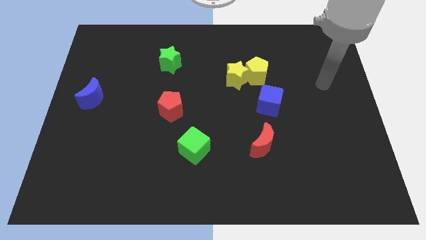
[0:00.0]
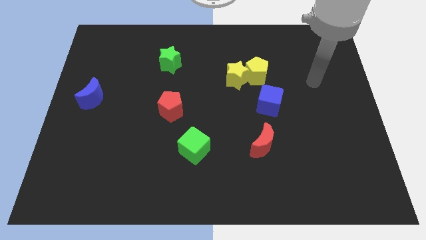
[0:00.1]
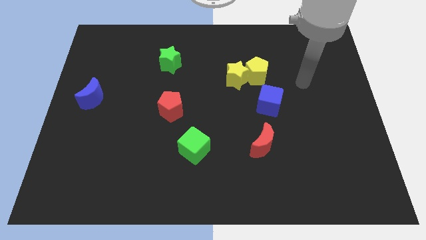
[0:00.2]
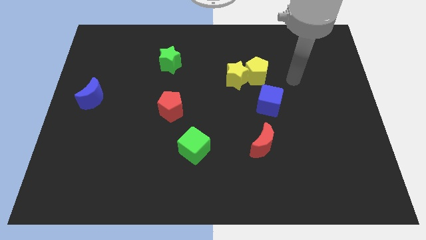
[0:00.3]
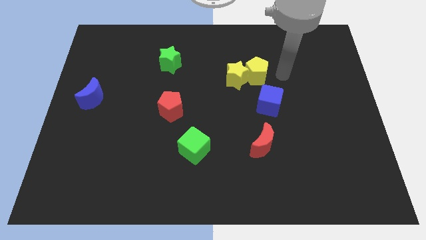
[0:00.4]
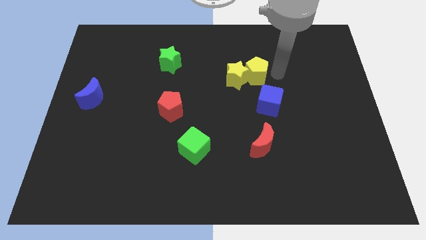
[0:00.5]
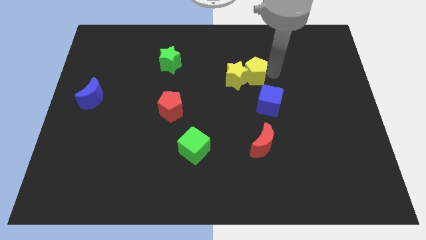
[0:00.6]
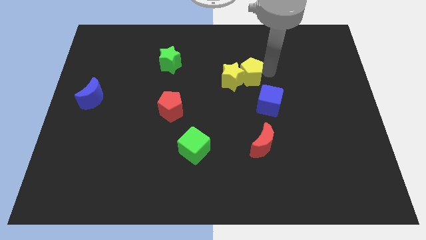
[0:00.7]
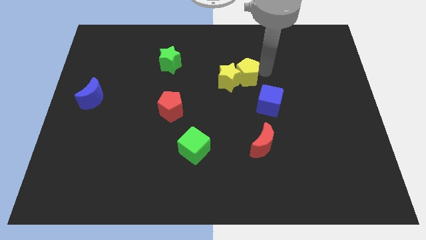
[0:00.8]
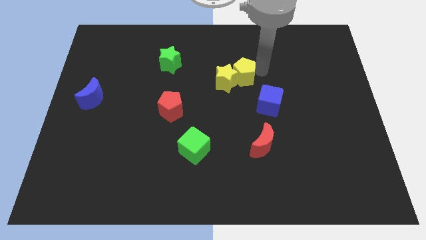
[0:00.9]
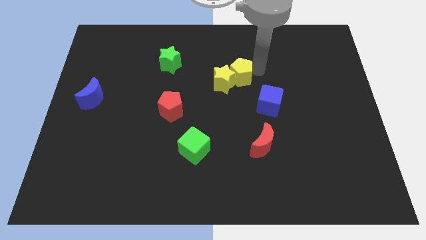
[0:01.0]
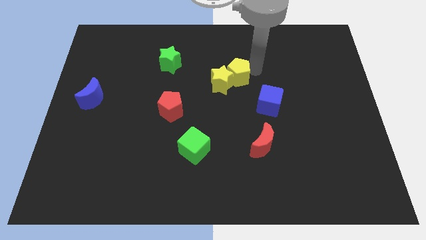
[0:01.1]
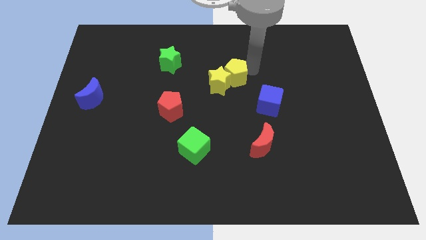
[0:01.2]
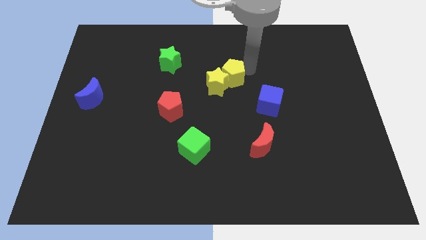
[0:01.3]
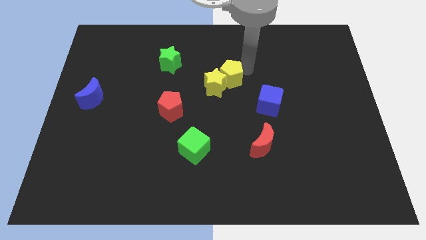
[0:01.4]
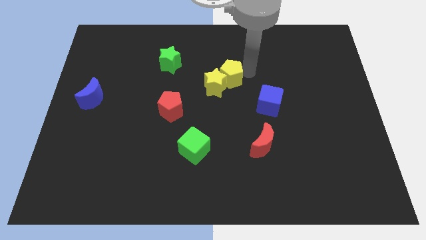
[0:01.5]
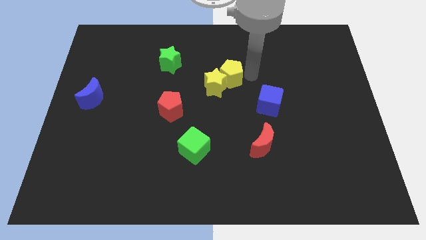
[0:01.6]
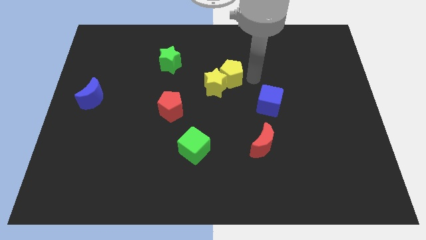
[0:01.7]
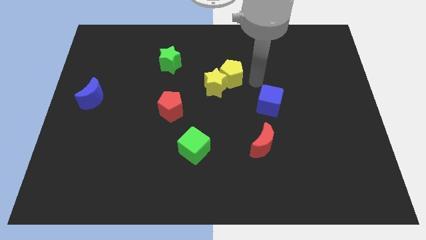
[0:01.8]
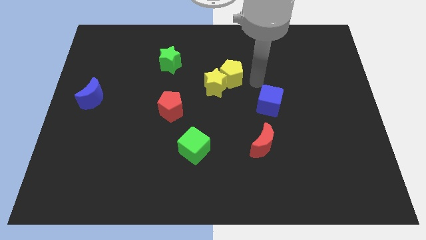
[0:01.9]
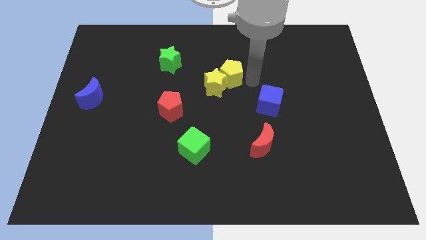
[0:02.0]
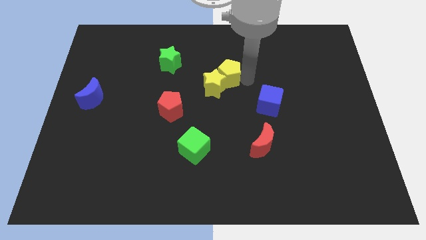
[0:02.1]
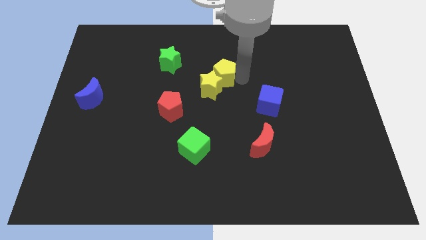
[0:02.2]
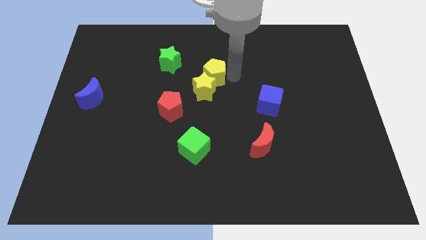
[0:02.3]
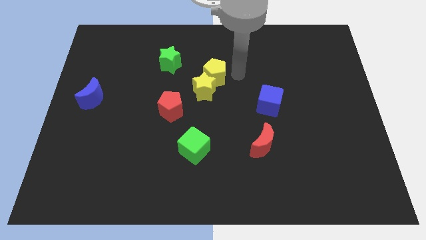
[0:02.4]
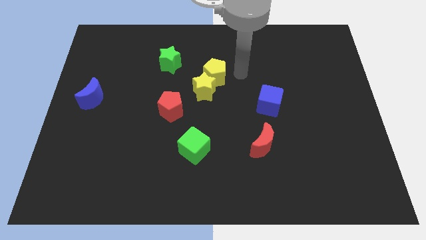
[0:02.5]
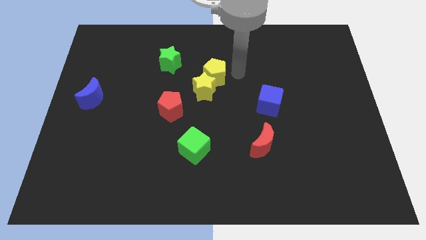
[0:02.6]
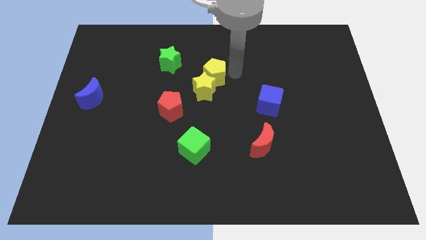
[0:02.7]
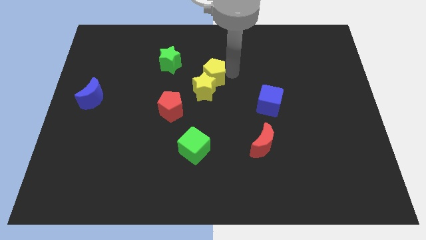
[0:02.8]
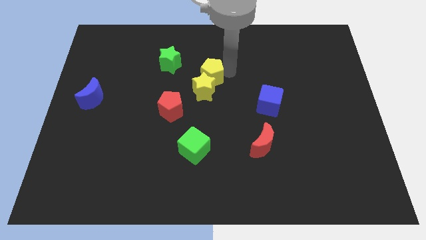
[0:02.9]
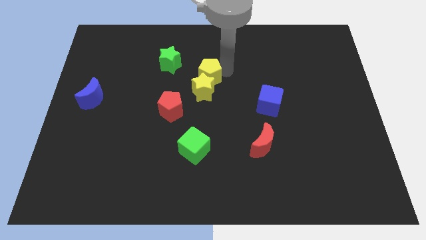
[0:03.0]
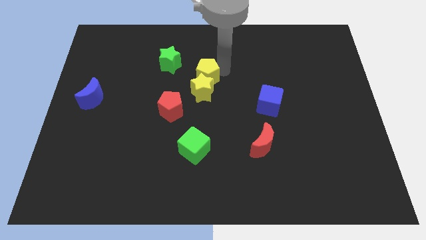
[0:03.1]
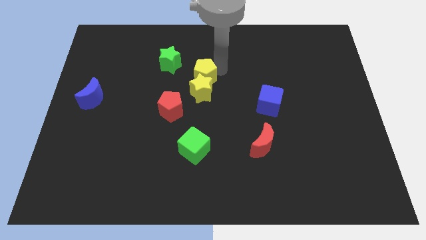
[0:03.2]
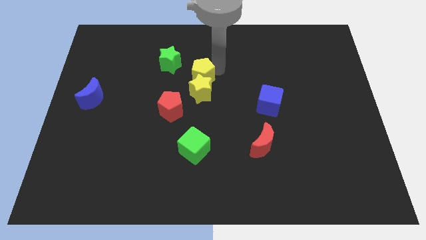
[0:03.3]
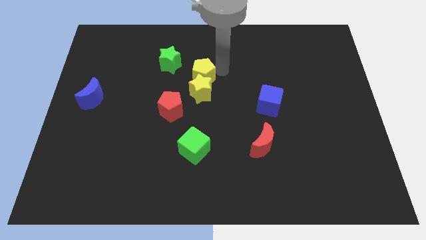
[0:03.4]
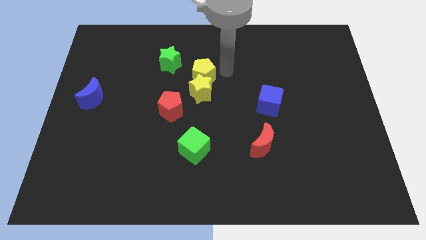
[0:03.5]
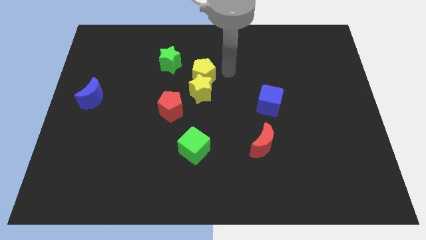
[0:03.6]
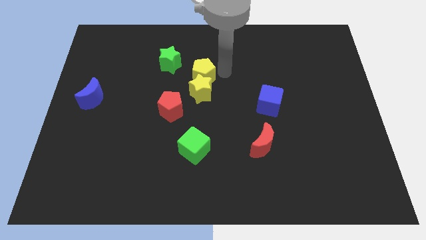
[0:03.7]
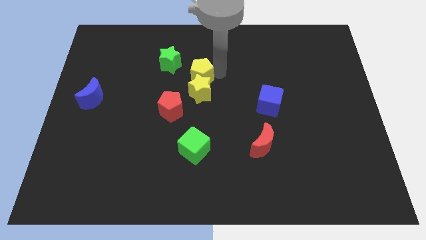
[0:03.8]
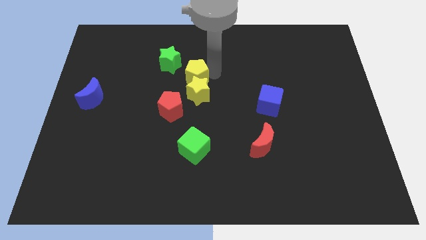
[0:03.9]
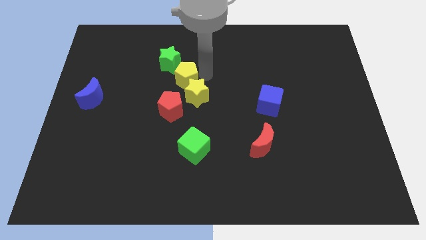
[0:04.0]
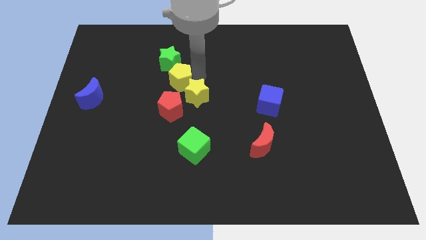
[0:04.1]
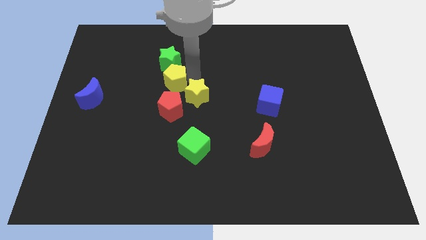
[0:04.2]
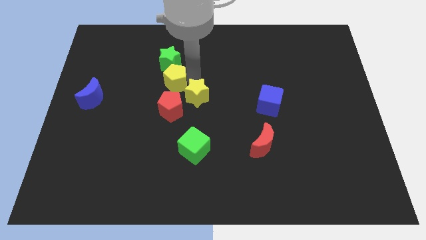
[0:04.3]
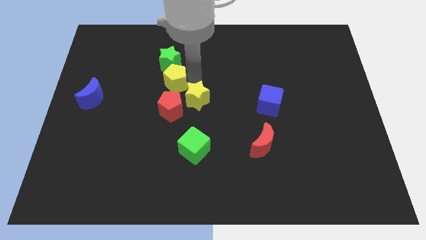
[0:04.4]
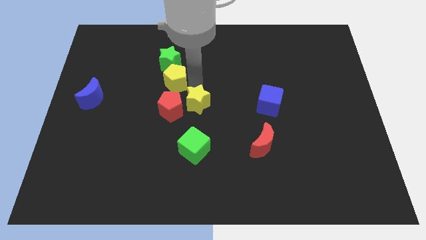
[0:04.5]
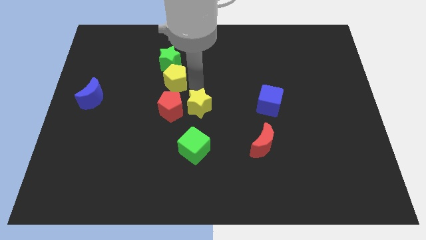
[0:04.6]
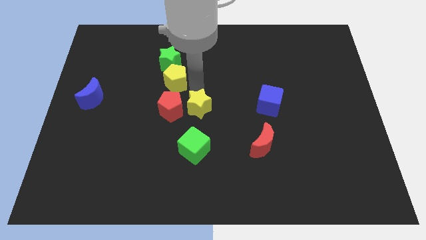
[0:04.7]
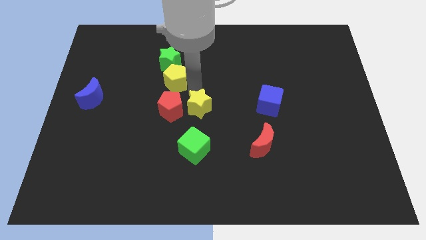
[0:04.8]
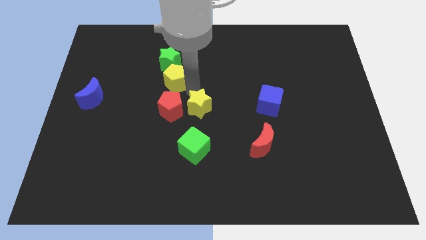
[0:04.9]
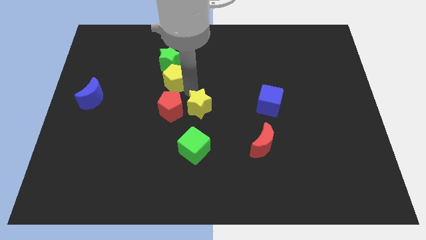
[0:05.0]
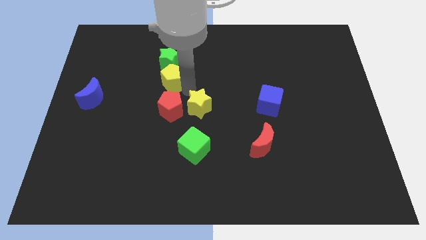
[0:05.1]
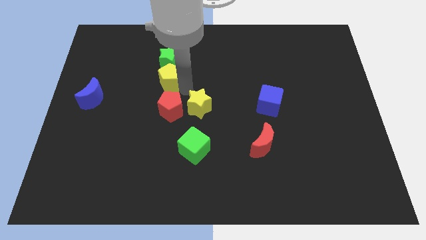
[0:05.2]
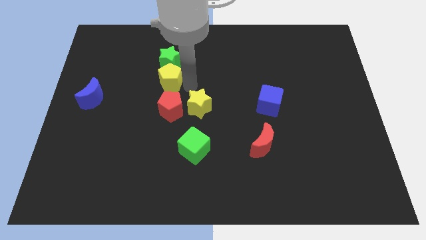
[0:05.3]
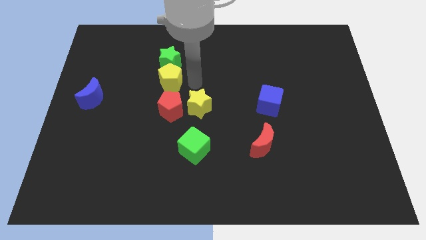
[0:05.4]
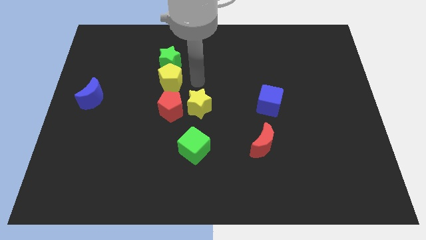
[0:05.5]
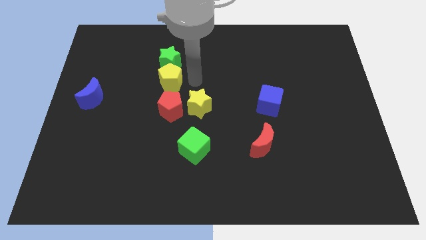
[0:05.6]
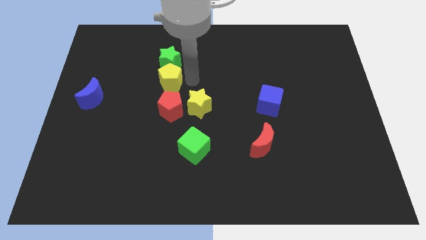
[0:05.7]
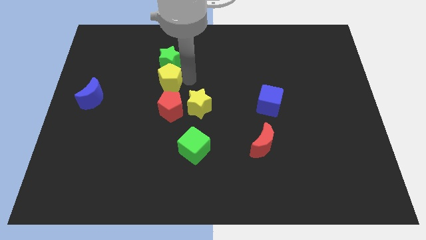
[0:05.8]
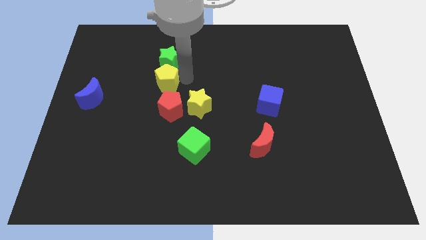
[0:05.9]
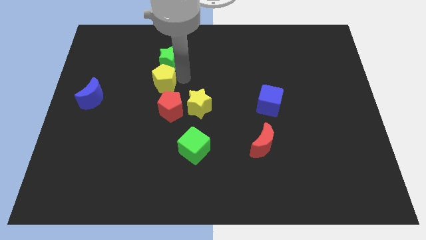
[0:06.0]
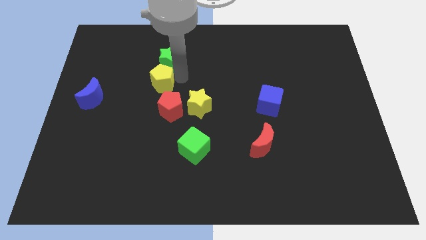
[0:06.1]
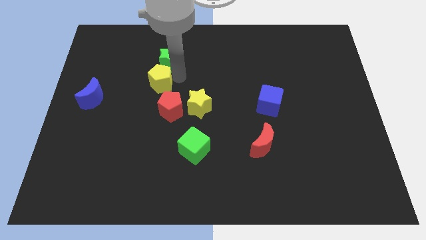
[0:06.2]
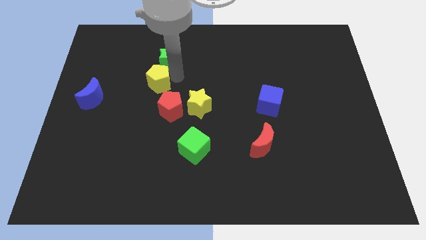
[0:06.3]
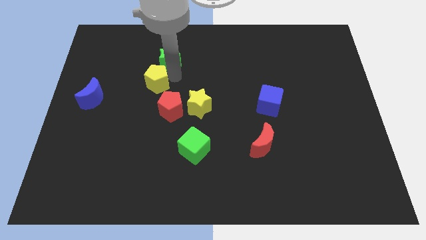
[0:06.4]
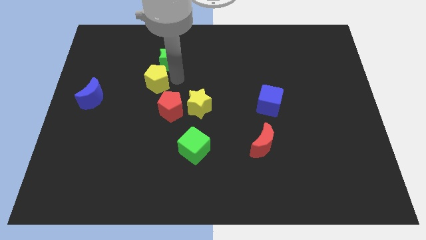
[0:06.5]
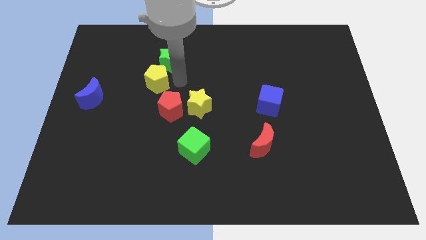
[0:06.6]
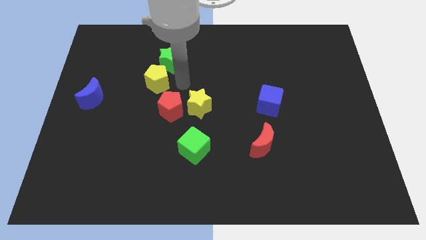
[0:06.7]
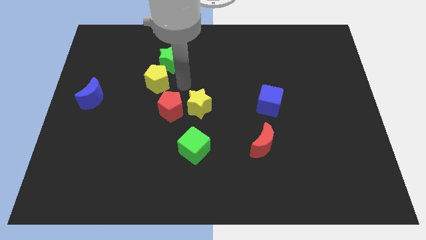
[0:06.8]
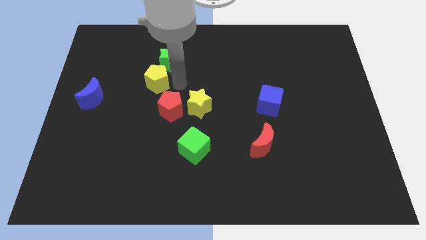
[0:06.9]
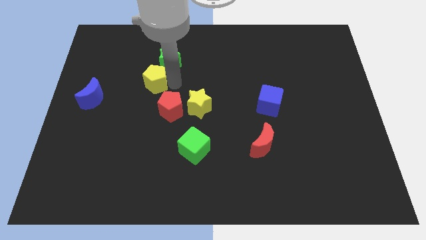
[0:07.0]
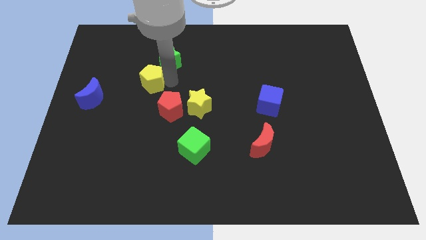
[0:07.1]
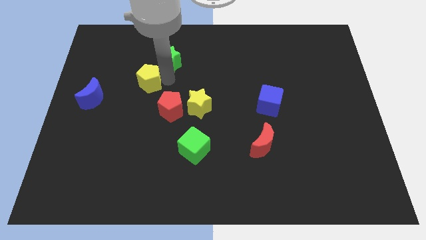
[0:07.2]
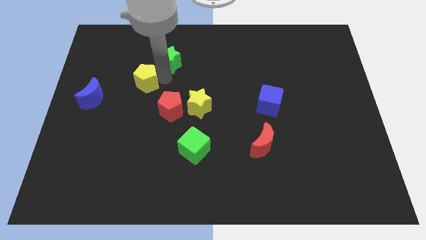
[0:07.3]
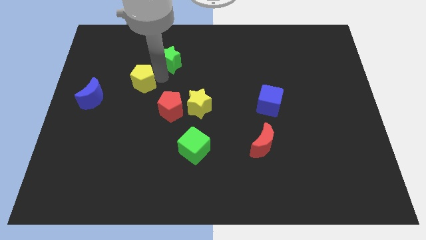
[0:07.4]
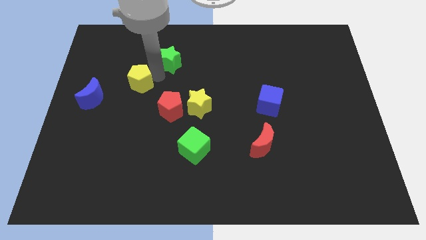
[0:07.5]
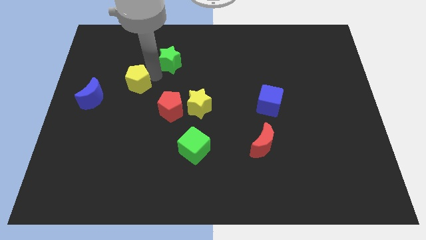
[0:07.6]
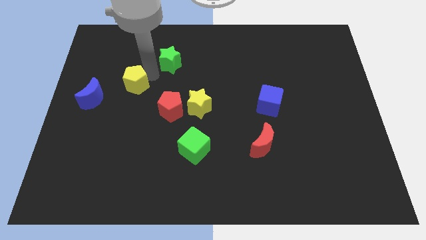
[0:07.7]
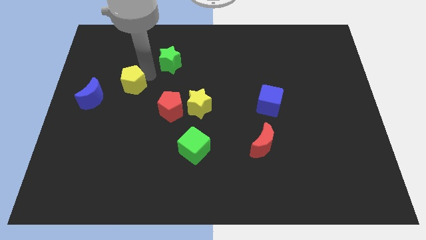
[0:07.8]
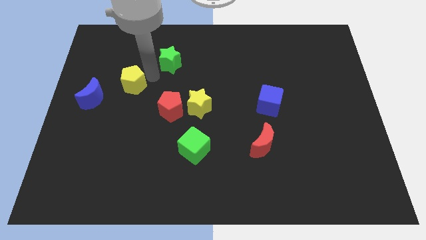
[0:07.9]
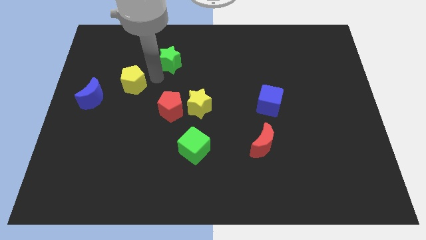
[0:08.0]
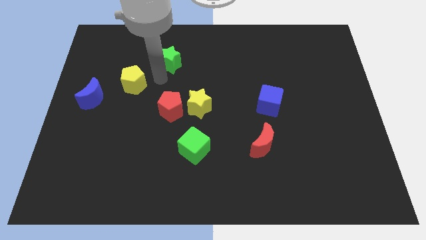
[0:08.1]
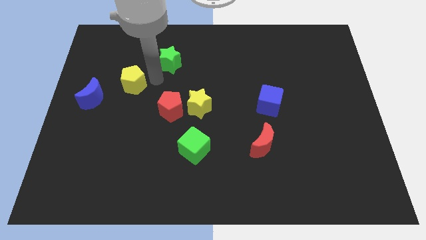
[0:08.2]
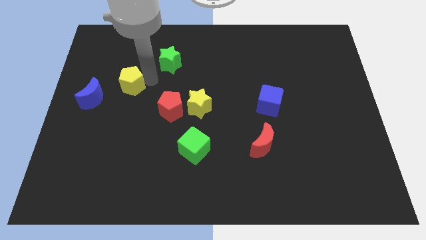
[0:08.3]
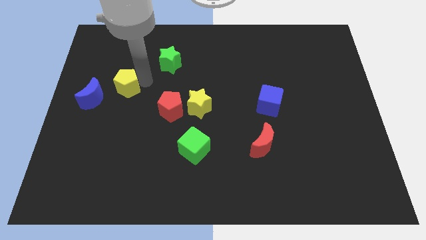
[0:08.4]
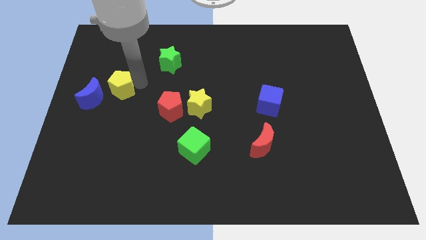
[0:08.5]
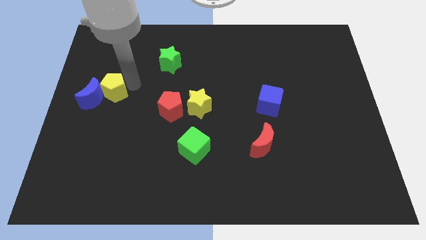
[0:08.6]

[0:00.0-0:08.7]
slide the yellow pentagon close to the blue moon
